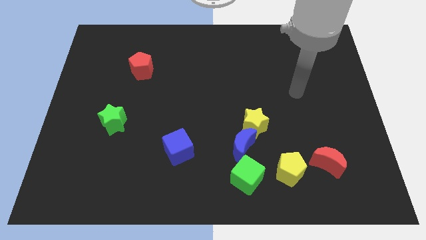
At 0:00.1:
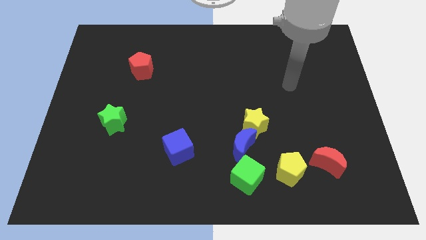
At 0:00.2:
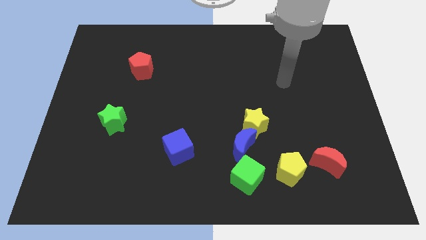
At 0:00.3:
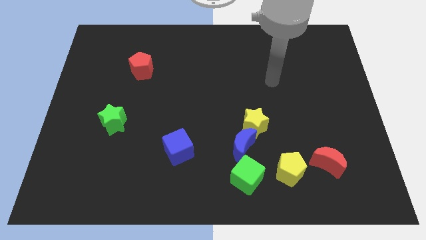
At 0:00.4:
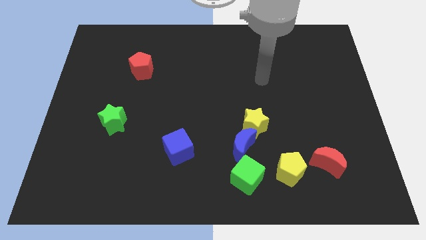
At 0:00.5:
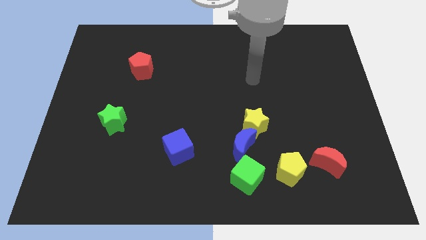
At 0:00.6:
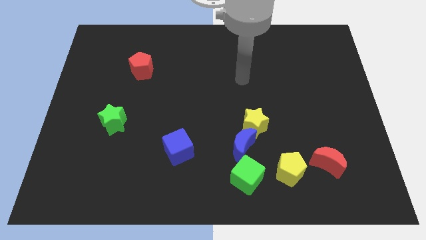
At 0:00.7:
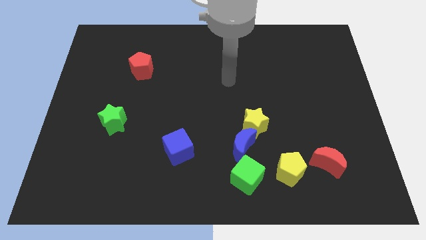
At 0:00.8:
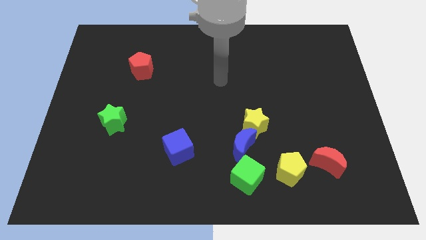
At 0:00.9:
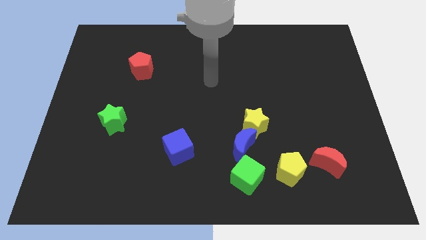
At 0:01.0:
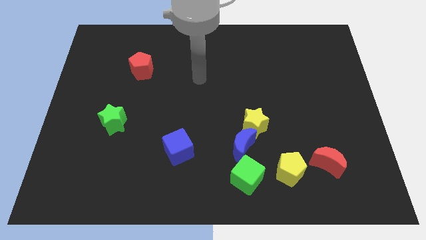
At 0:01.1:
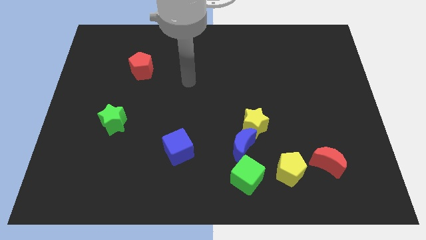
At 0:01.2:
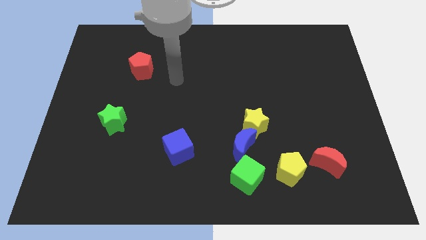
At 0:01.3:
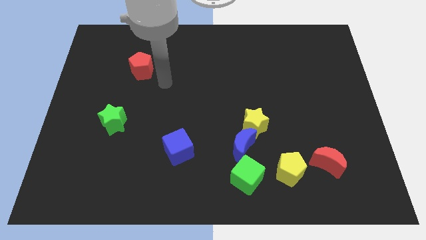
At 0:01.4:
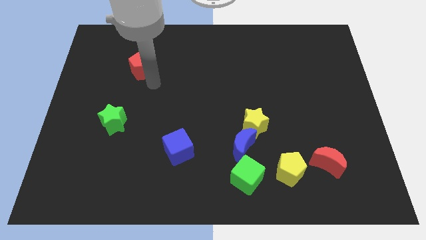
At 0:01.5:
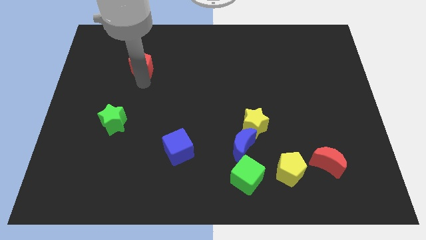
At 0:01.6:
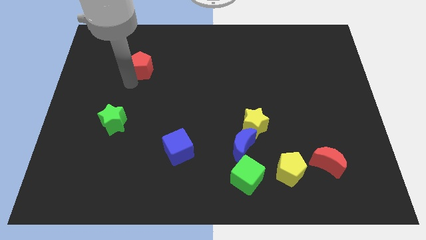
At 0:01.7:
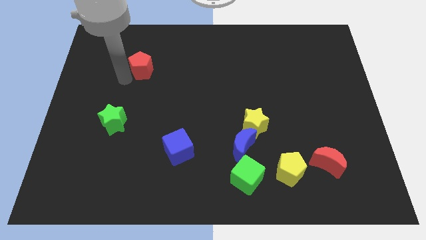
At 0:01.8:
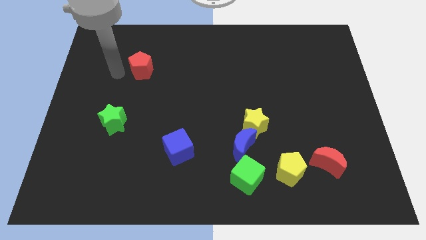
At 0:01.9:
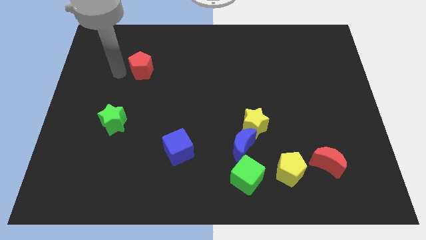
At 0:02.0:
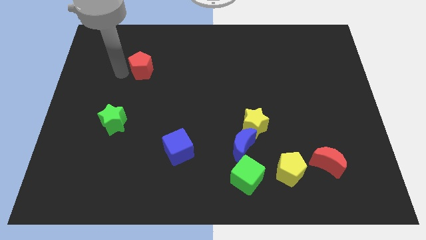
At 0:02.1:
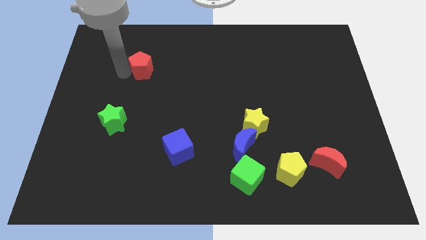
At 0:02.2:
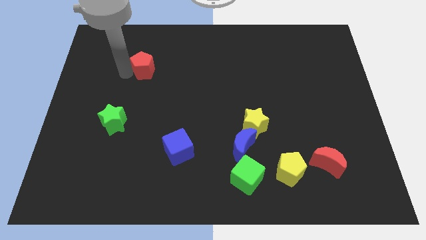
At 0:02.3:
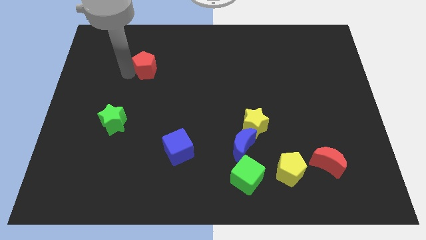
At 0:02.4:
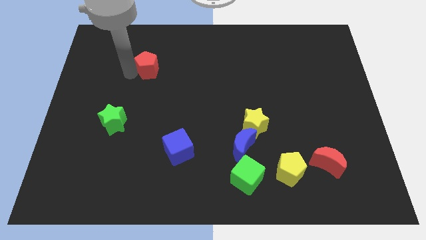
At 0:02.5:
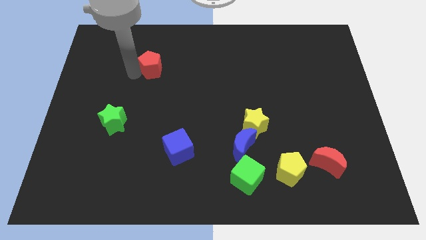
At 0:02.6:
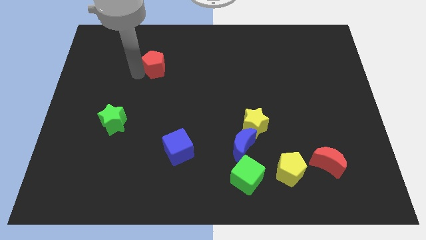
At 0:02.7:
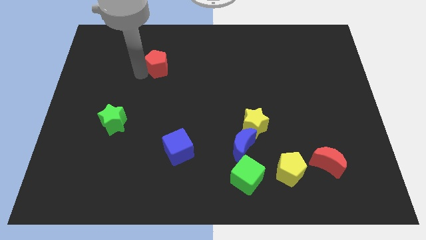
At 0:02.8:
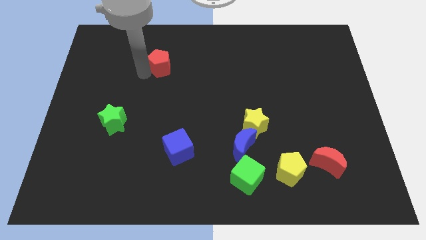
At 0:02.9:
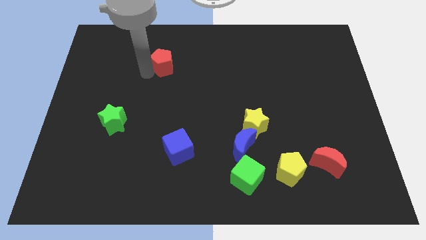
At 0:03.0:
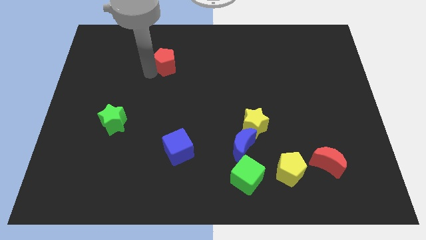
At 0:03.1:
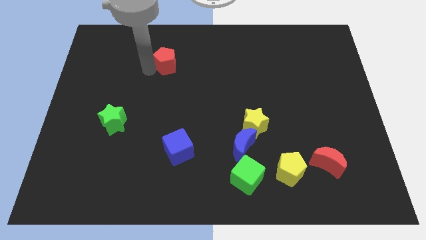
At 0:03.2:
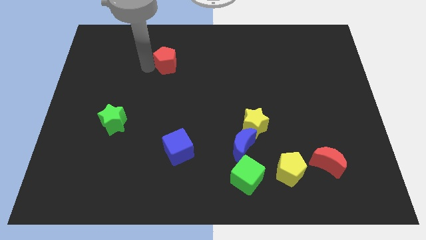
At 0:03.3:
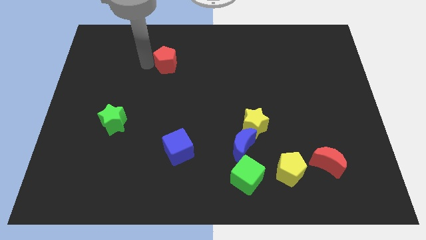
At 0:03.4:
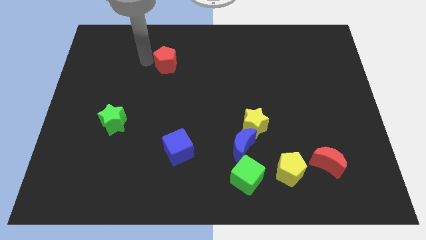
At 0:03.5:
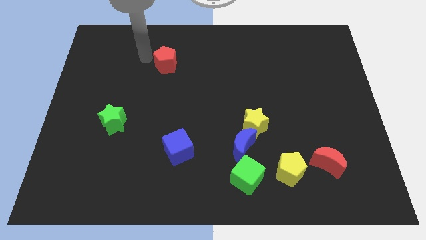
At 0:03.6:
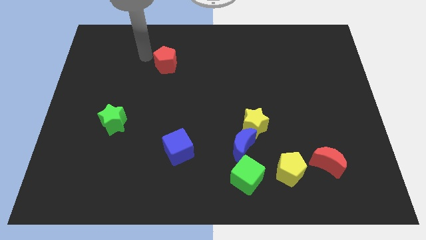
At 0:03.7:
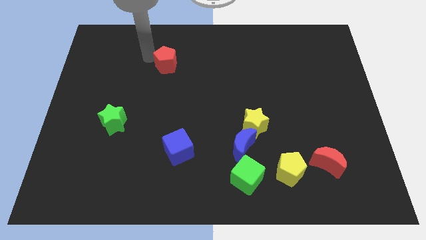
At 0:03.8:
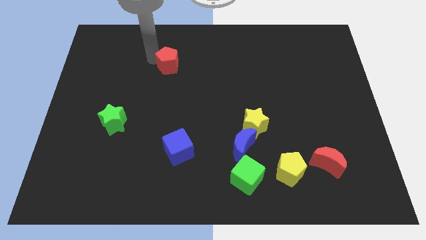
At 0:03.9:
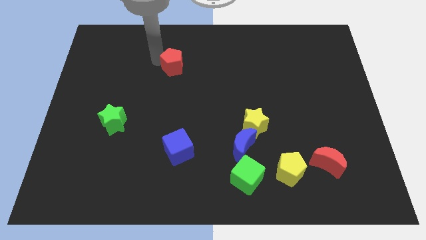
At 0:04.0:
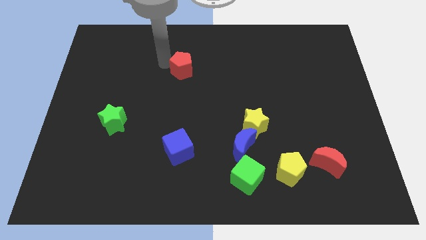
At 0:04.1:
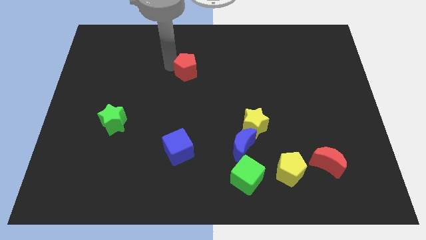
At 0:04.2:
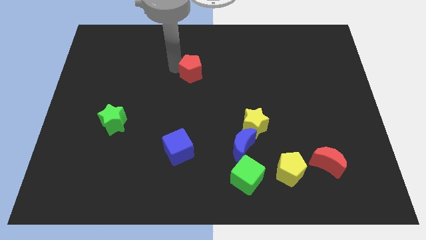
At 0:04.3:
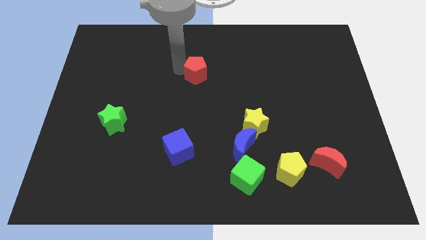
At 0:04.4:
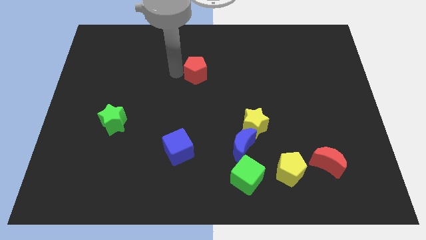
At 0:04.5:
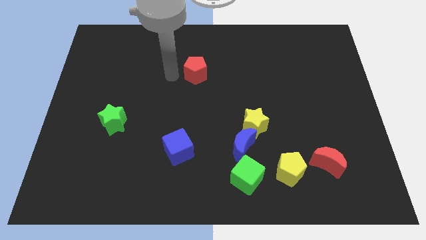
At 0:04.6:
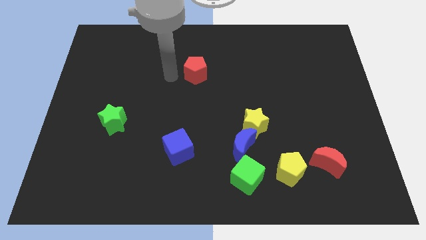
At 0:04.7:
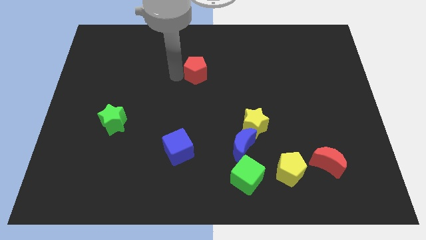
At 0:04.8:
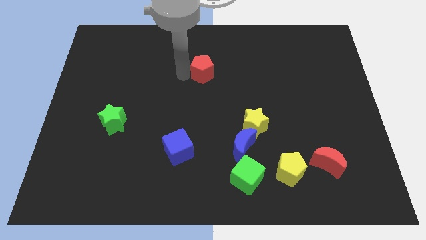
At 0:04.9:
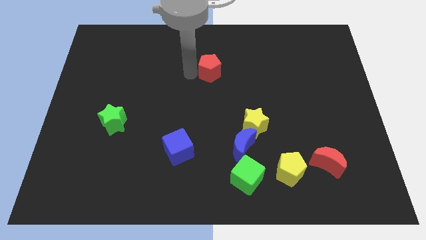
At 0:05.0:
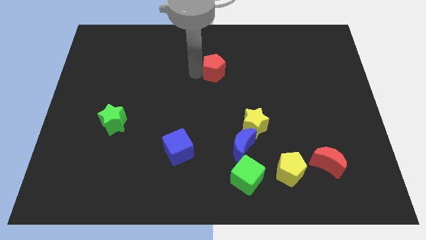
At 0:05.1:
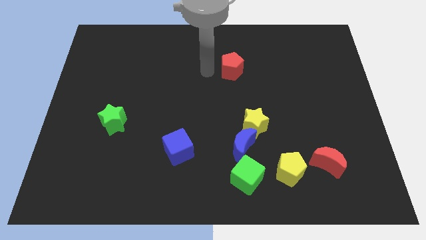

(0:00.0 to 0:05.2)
move the red pentagon right

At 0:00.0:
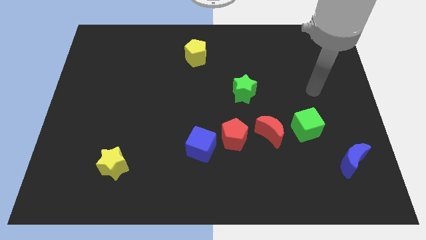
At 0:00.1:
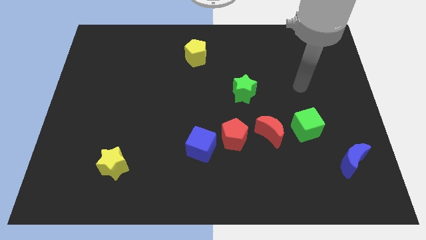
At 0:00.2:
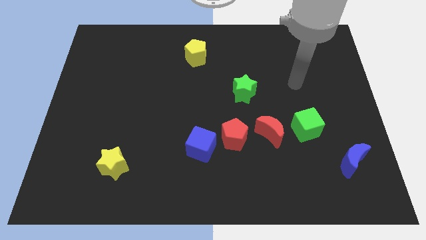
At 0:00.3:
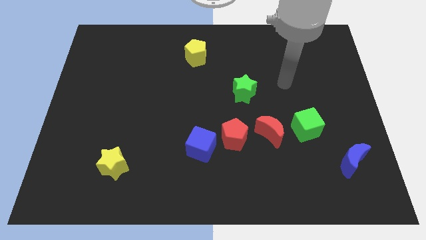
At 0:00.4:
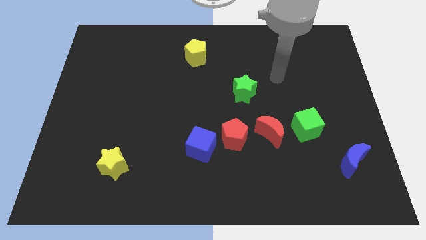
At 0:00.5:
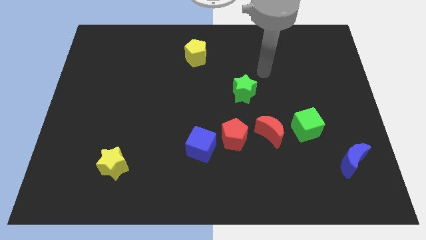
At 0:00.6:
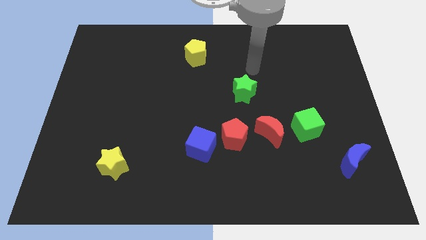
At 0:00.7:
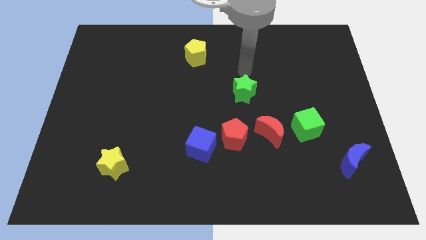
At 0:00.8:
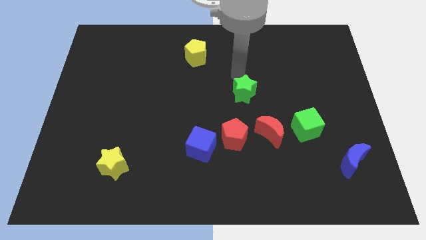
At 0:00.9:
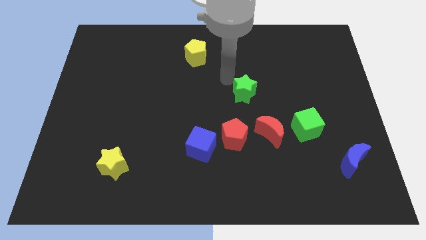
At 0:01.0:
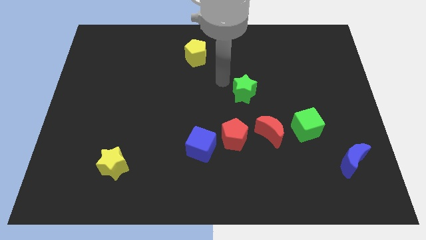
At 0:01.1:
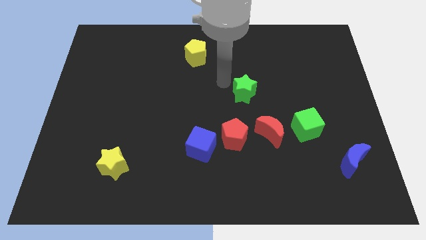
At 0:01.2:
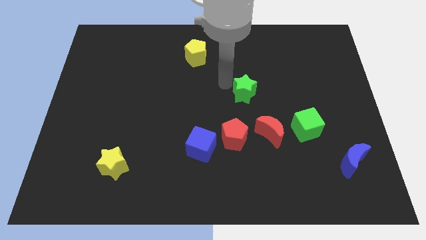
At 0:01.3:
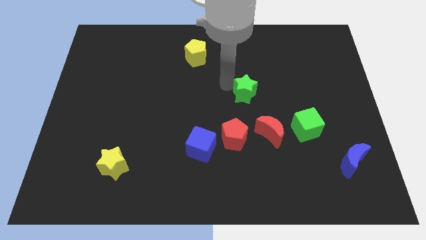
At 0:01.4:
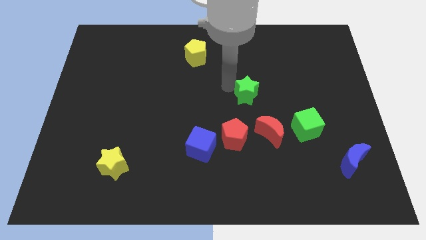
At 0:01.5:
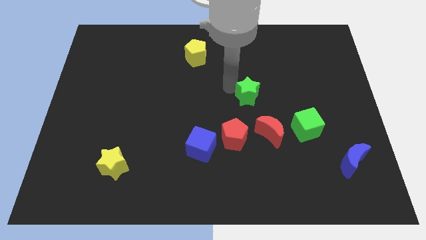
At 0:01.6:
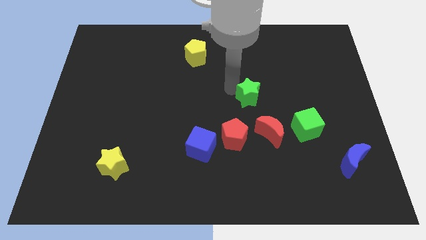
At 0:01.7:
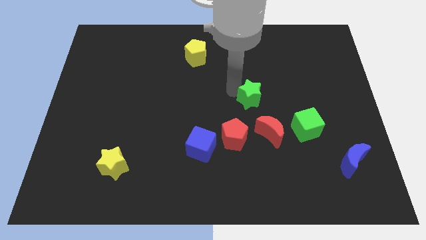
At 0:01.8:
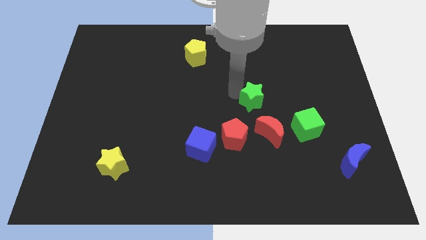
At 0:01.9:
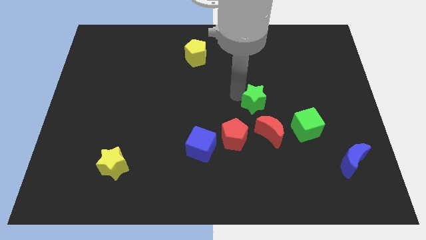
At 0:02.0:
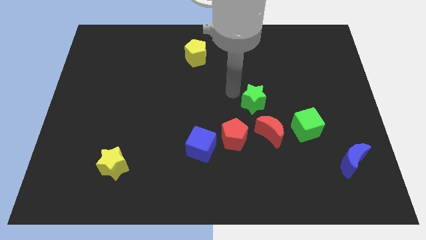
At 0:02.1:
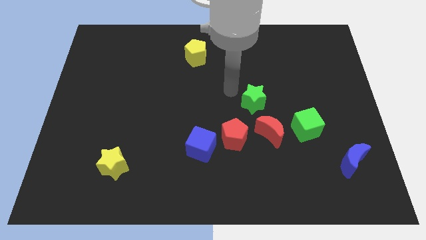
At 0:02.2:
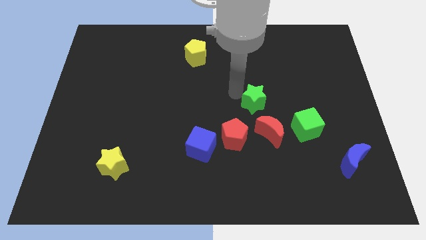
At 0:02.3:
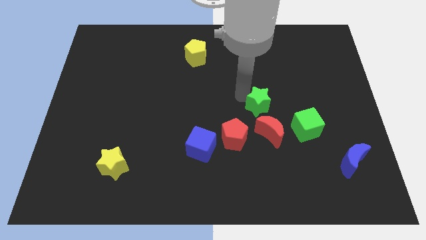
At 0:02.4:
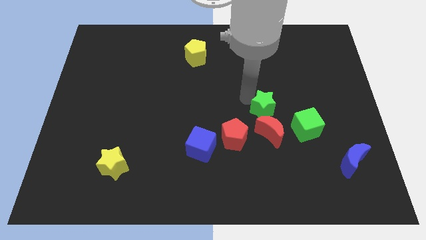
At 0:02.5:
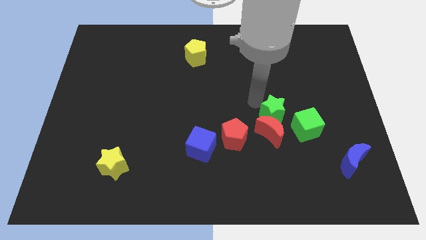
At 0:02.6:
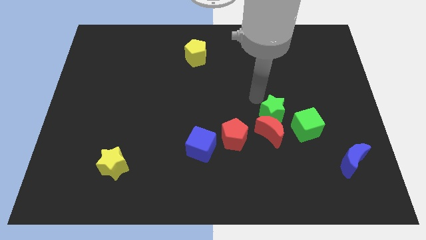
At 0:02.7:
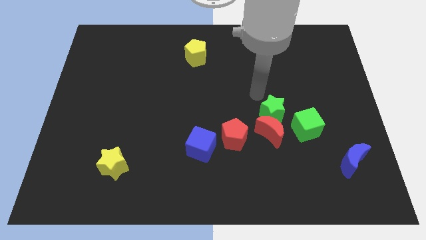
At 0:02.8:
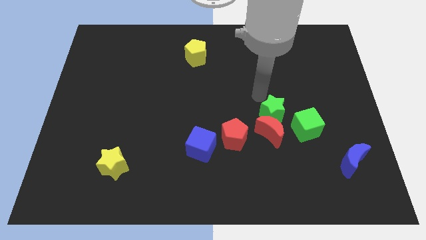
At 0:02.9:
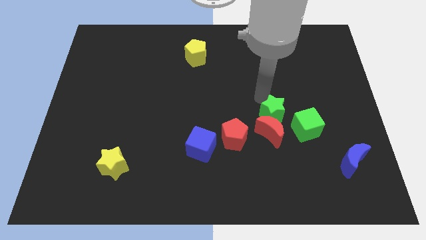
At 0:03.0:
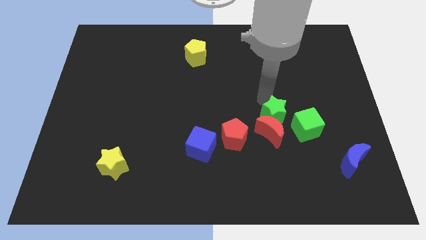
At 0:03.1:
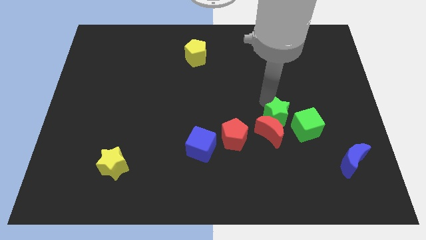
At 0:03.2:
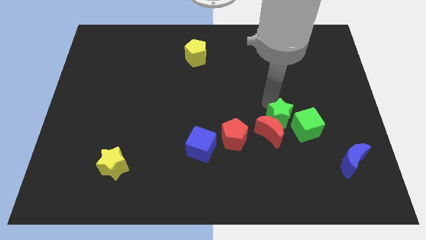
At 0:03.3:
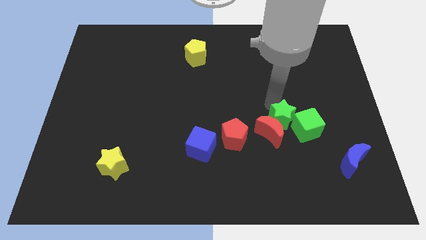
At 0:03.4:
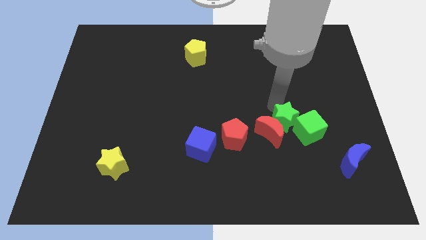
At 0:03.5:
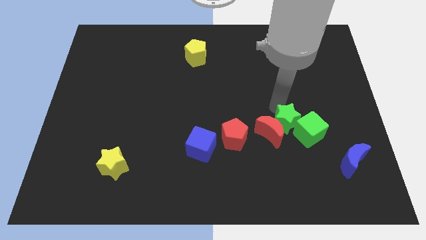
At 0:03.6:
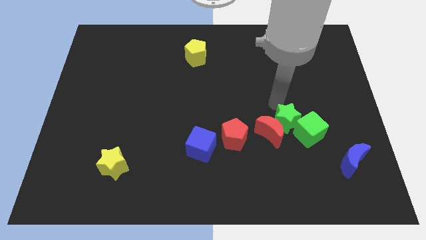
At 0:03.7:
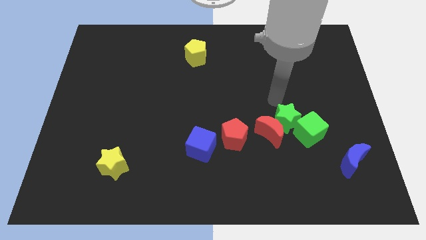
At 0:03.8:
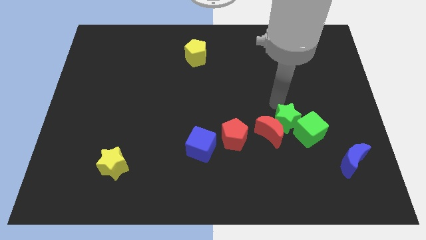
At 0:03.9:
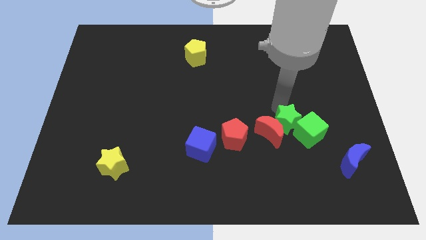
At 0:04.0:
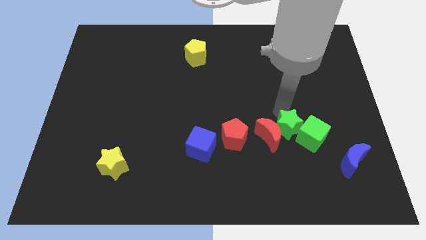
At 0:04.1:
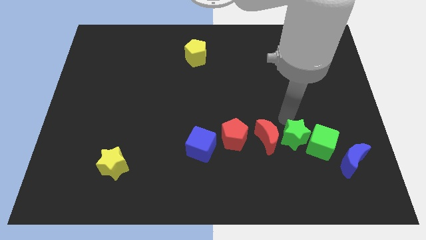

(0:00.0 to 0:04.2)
push the green star down slightly
